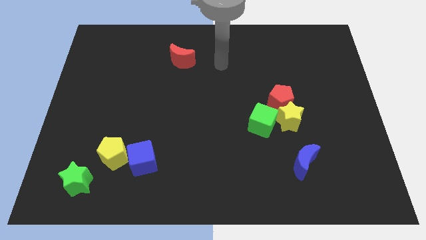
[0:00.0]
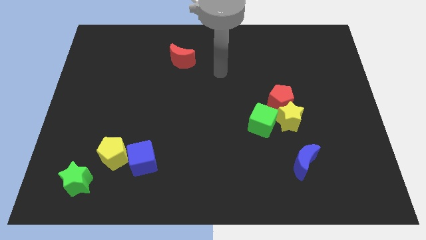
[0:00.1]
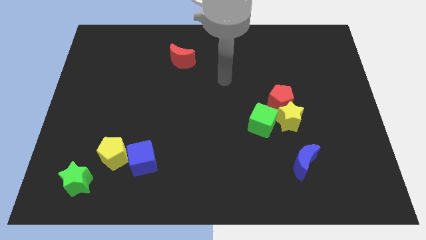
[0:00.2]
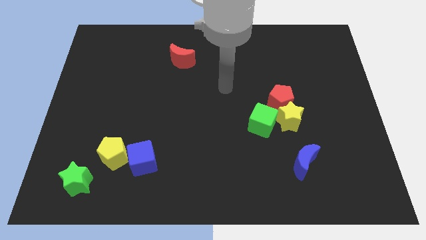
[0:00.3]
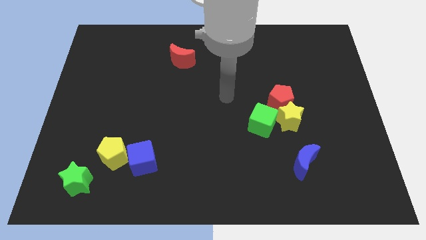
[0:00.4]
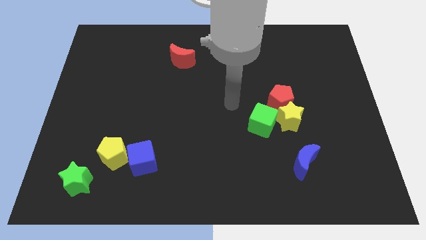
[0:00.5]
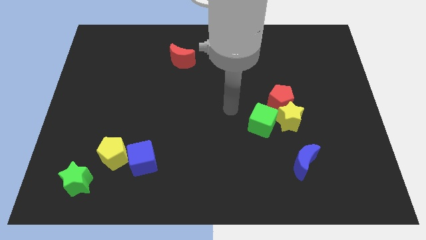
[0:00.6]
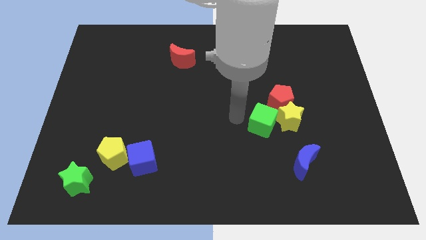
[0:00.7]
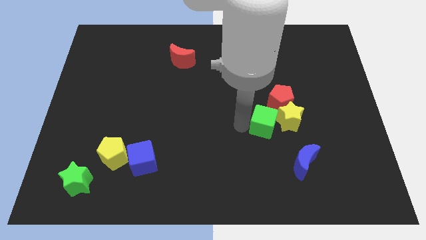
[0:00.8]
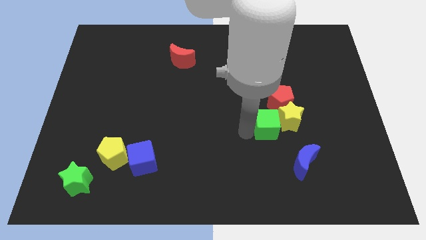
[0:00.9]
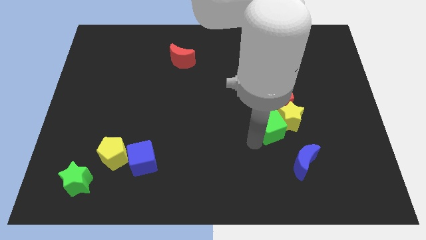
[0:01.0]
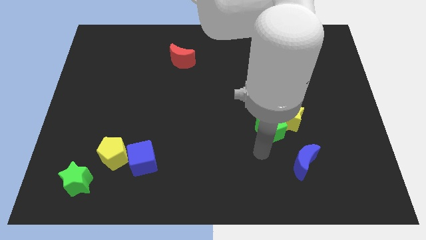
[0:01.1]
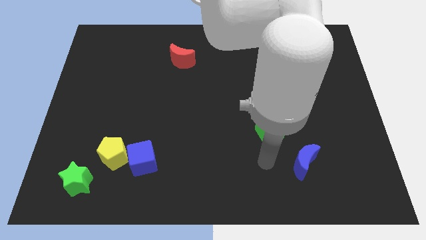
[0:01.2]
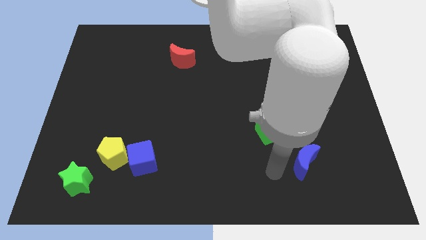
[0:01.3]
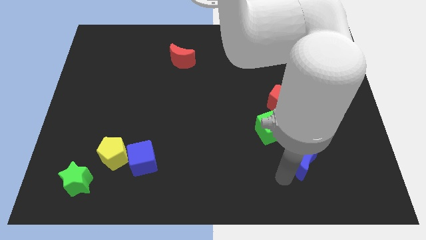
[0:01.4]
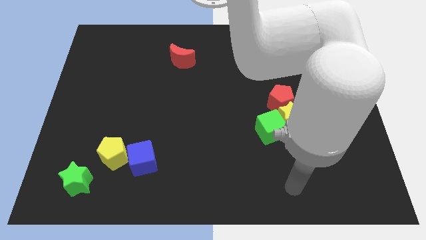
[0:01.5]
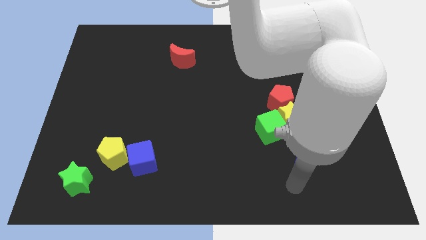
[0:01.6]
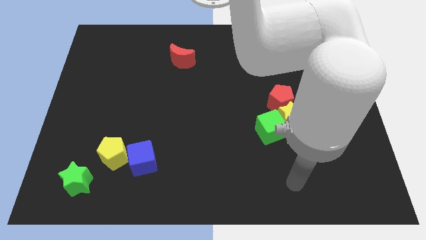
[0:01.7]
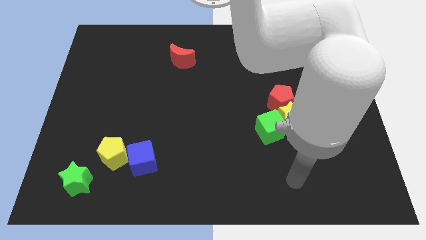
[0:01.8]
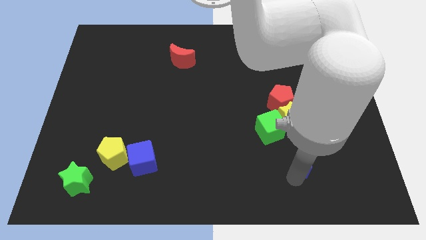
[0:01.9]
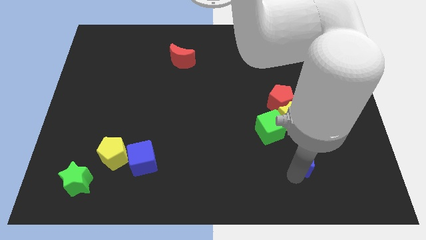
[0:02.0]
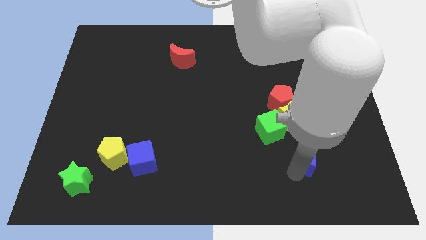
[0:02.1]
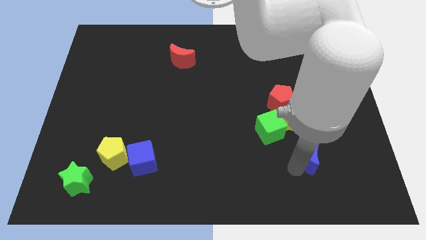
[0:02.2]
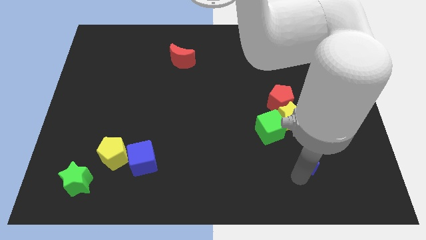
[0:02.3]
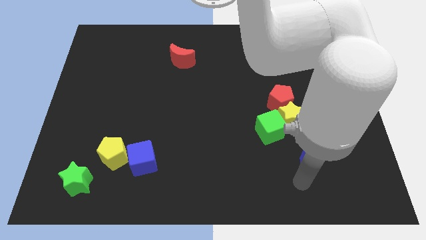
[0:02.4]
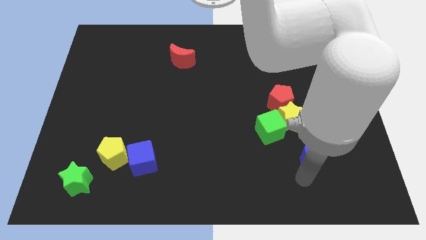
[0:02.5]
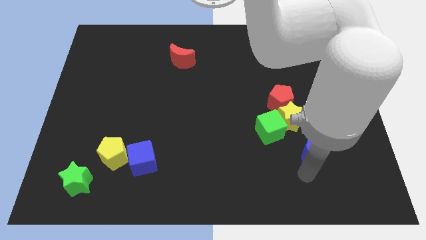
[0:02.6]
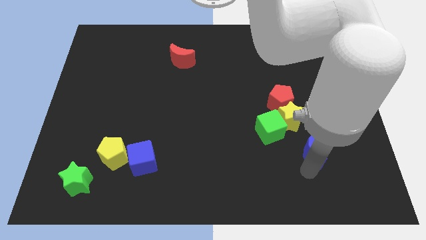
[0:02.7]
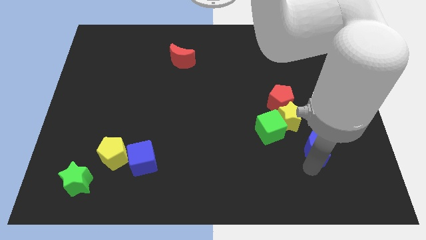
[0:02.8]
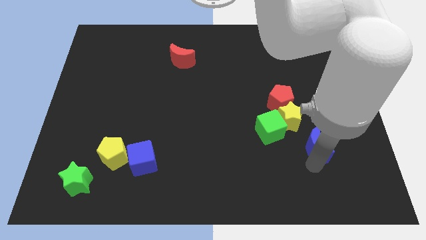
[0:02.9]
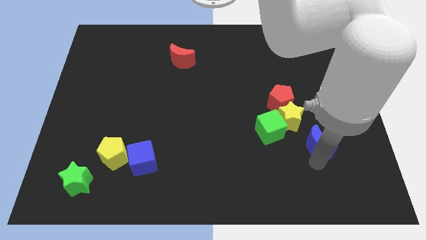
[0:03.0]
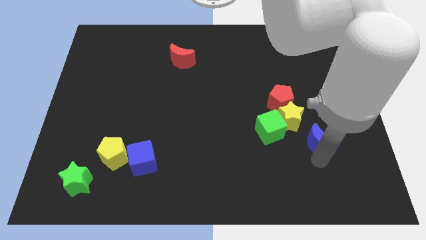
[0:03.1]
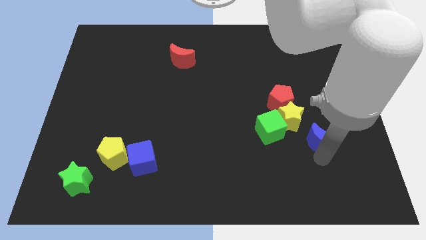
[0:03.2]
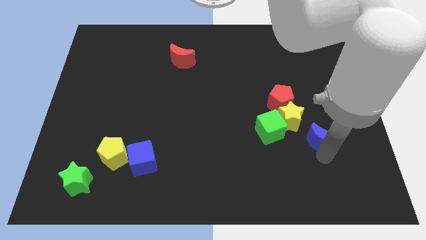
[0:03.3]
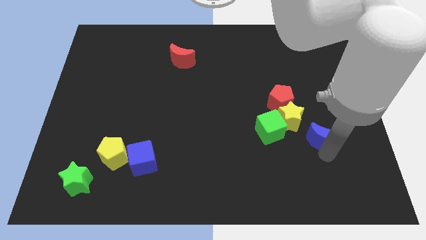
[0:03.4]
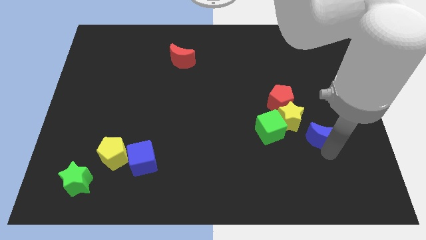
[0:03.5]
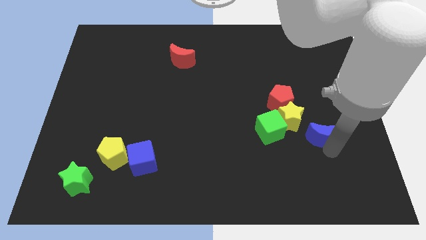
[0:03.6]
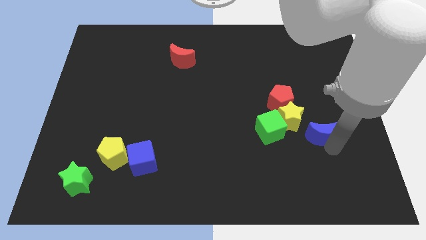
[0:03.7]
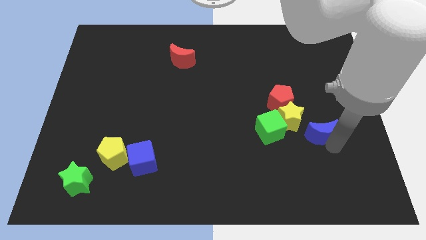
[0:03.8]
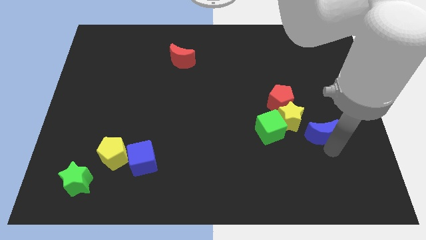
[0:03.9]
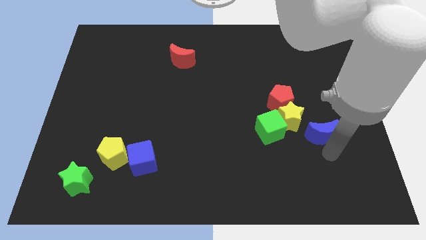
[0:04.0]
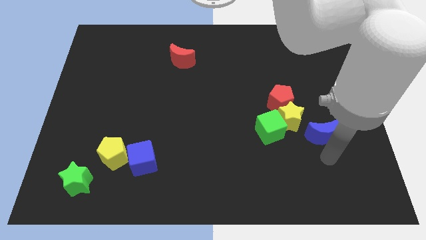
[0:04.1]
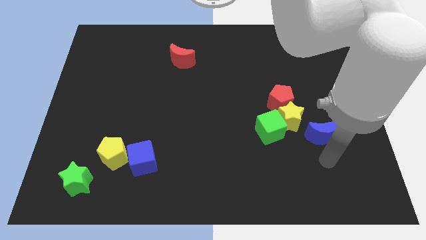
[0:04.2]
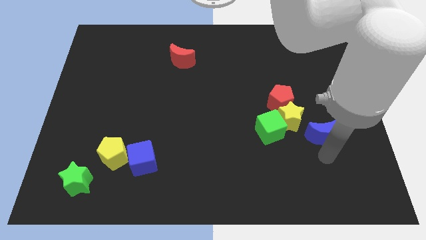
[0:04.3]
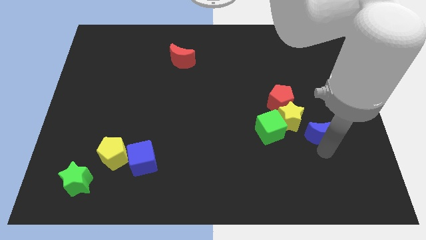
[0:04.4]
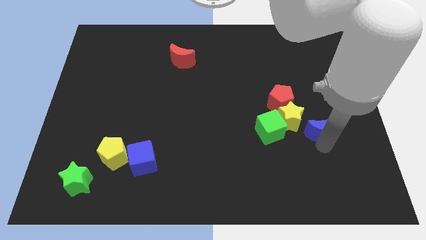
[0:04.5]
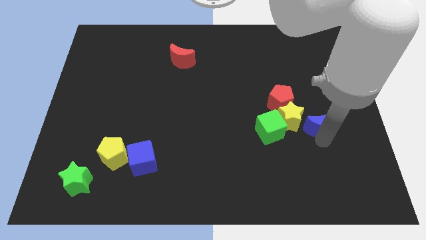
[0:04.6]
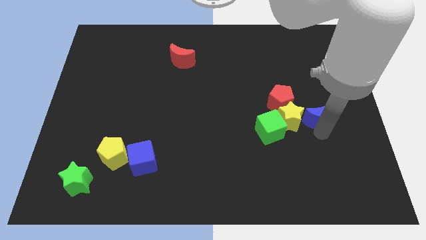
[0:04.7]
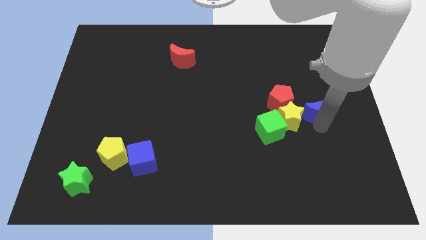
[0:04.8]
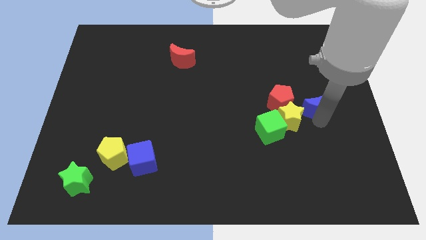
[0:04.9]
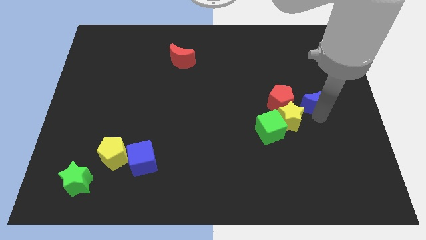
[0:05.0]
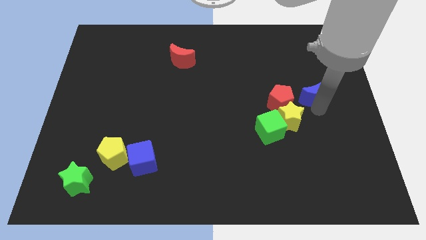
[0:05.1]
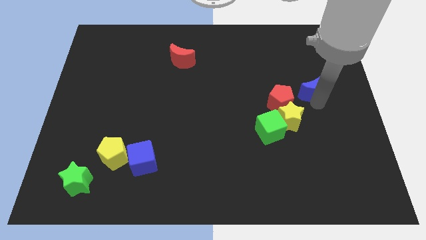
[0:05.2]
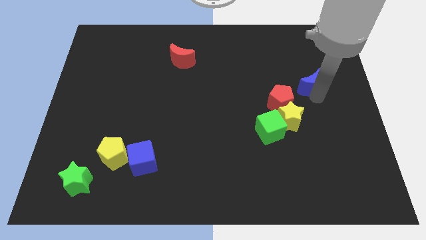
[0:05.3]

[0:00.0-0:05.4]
slide the blue moon up

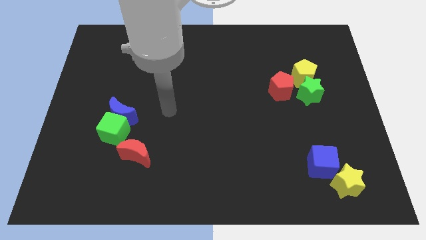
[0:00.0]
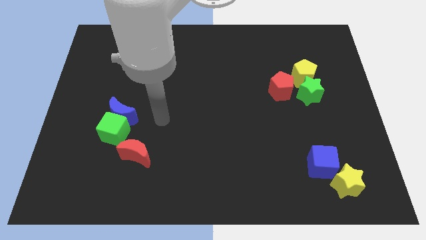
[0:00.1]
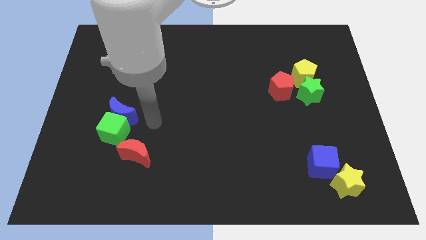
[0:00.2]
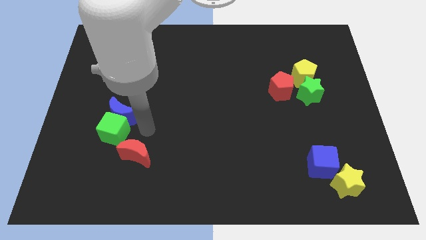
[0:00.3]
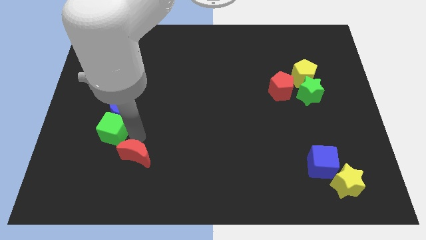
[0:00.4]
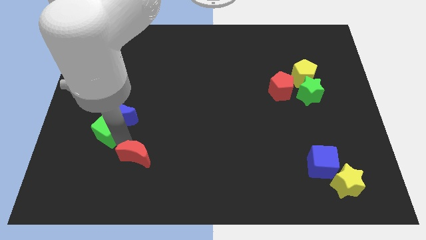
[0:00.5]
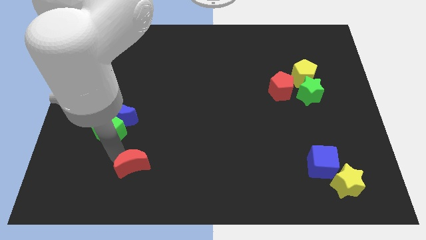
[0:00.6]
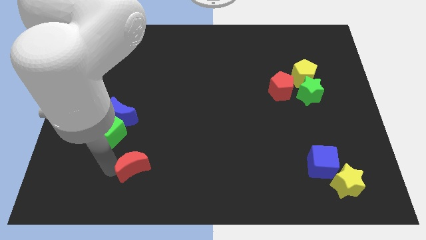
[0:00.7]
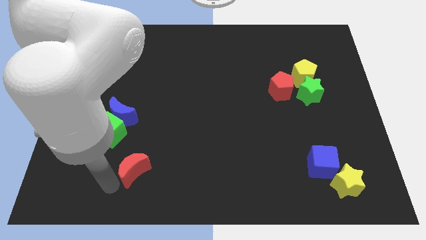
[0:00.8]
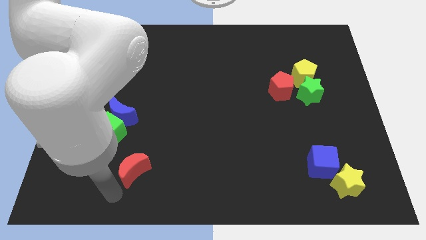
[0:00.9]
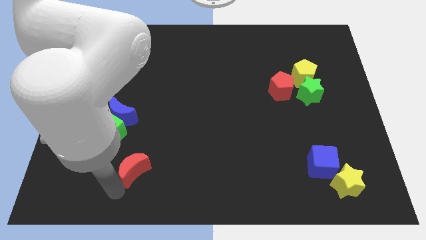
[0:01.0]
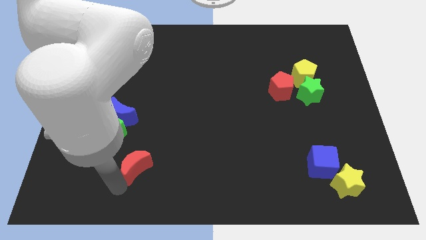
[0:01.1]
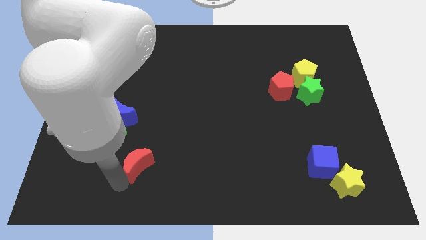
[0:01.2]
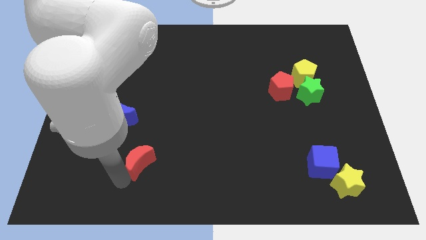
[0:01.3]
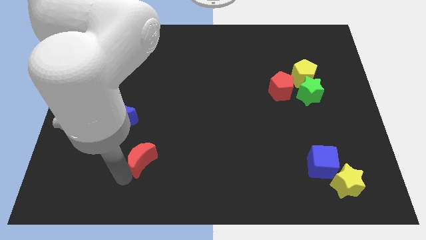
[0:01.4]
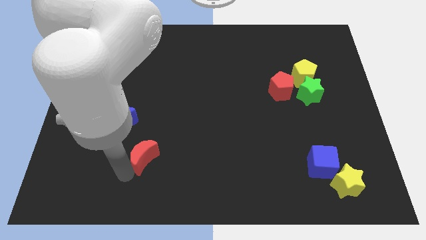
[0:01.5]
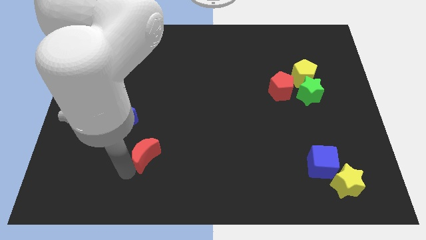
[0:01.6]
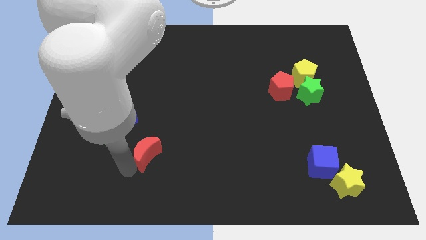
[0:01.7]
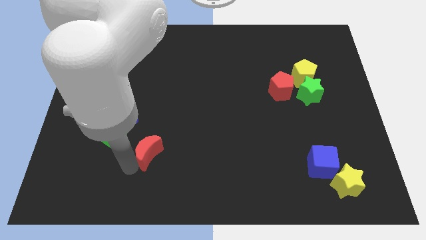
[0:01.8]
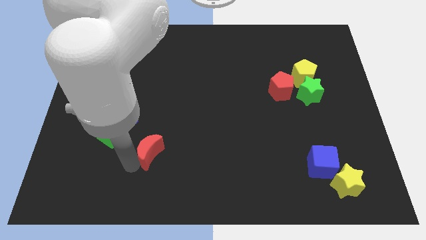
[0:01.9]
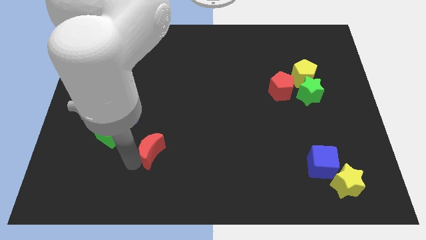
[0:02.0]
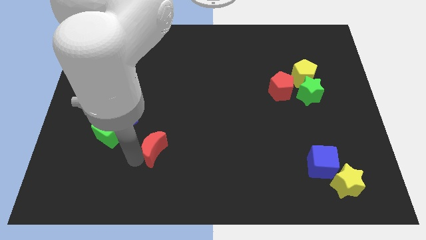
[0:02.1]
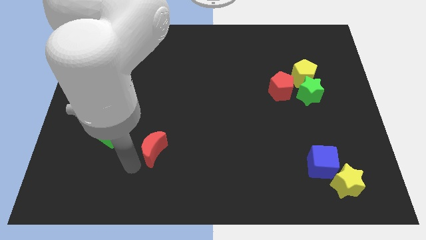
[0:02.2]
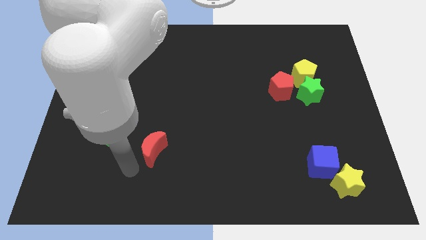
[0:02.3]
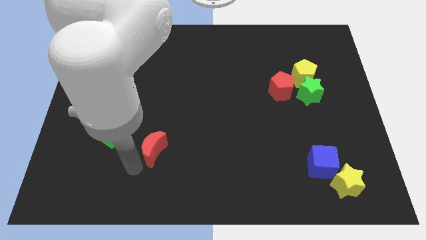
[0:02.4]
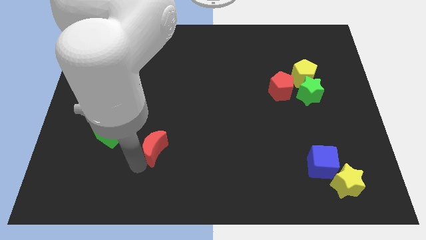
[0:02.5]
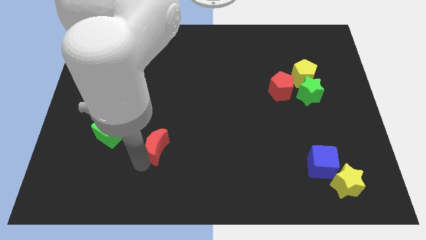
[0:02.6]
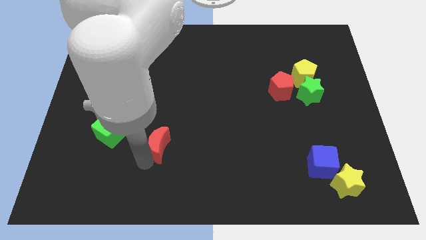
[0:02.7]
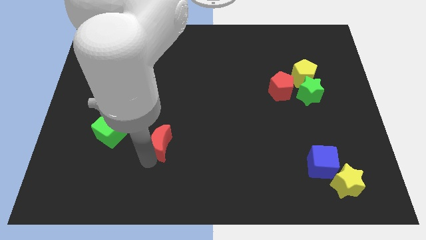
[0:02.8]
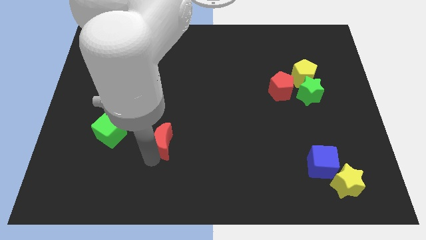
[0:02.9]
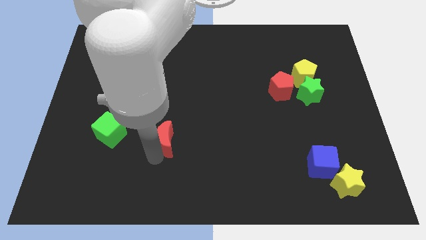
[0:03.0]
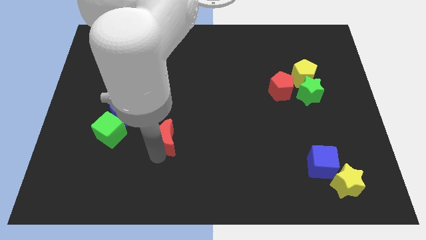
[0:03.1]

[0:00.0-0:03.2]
push the red moon up and then right a little bit
